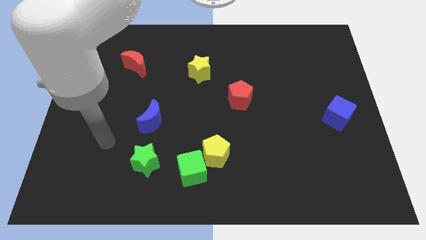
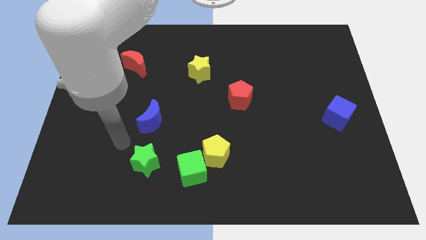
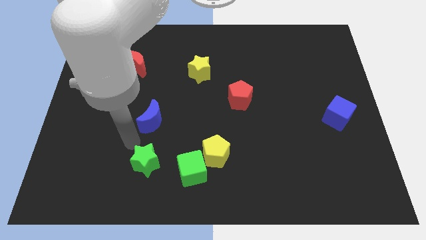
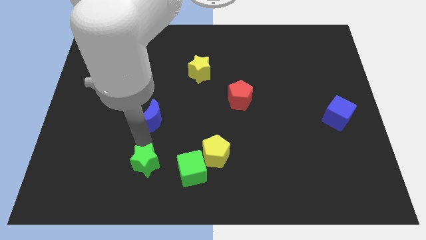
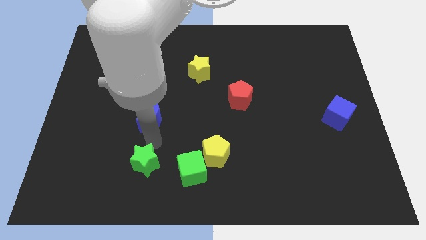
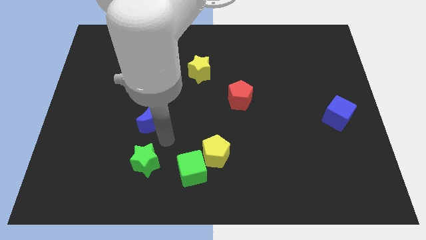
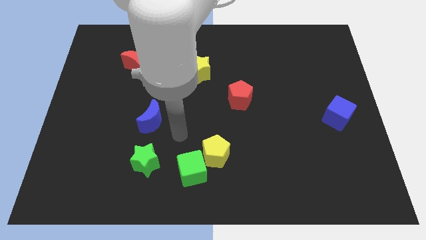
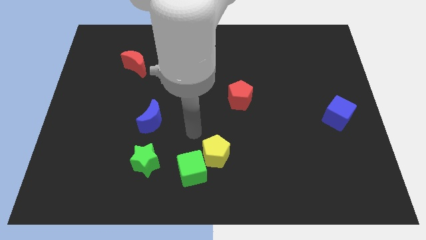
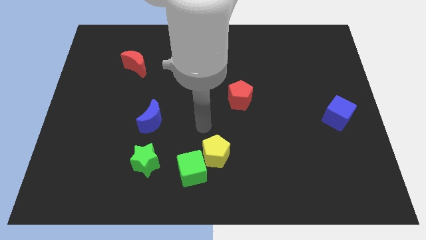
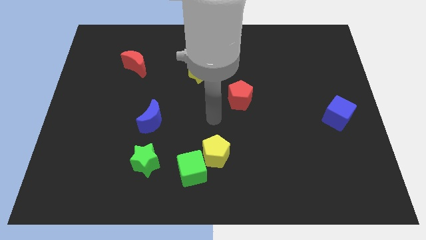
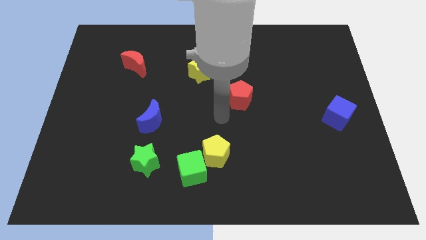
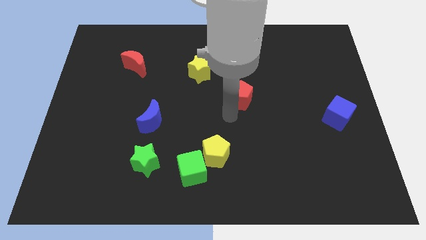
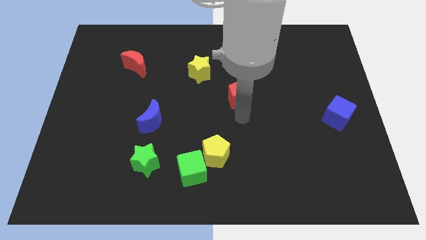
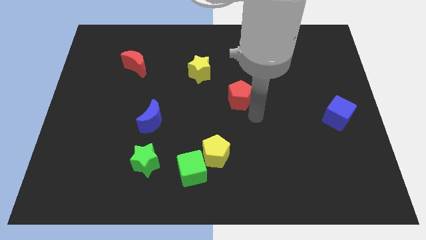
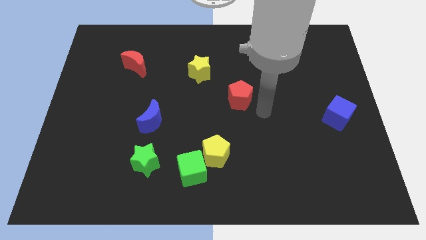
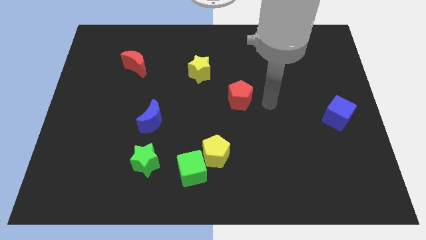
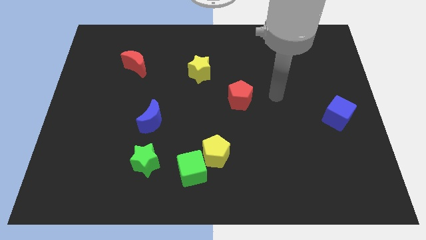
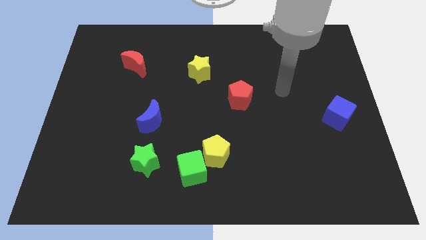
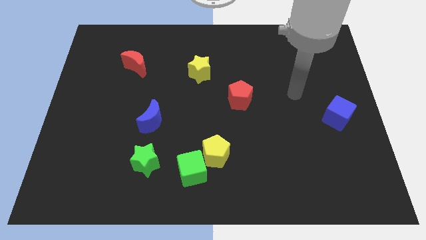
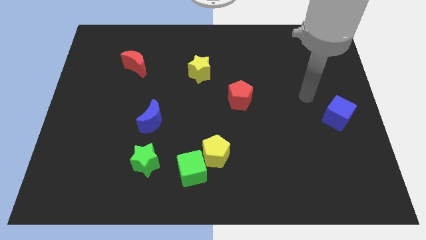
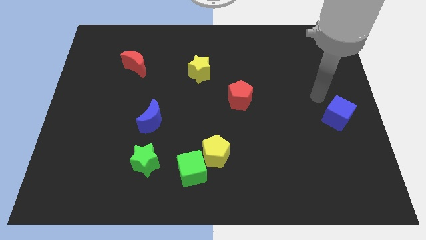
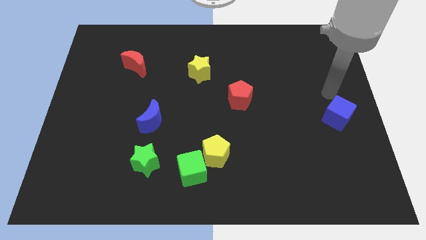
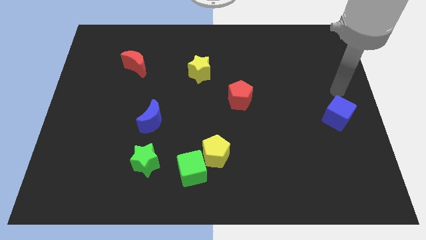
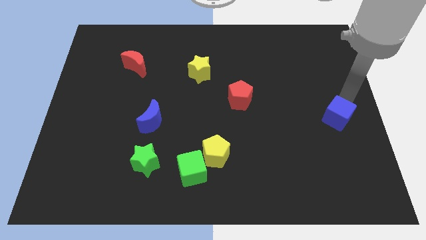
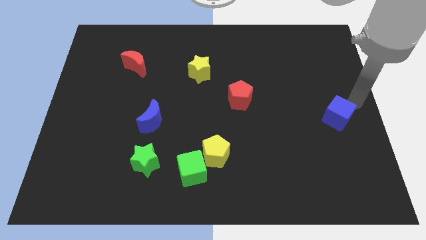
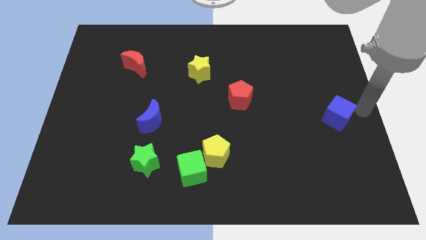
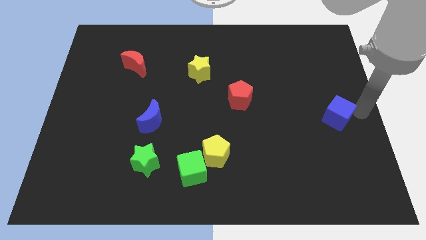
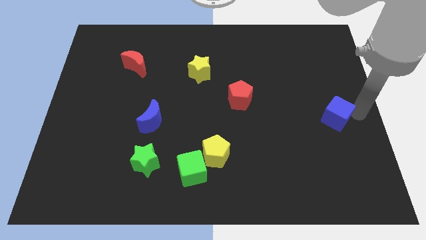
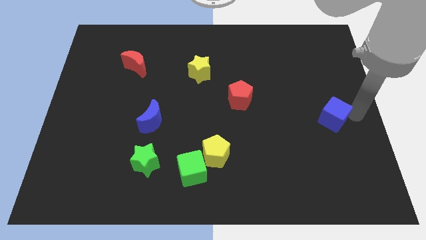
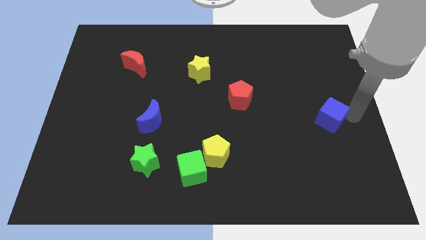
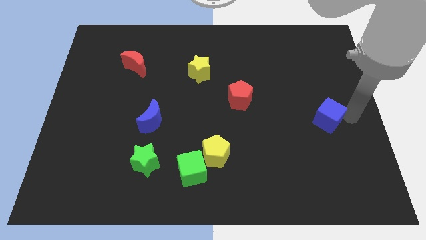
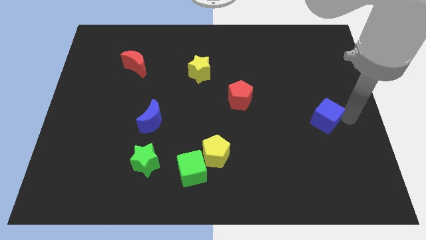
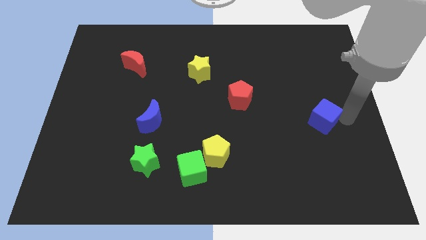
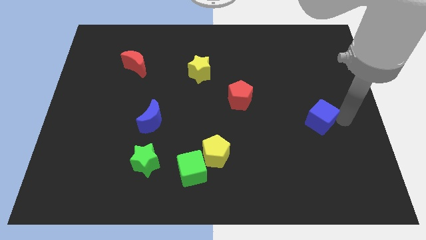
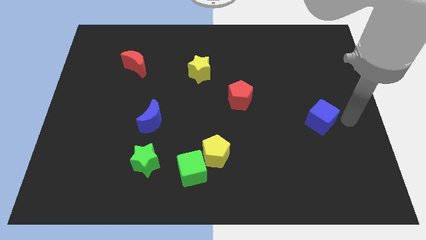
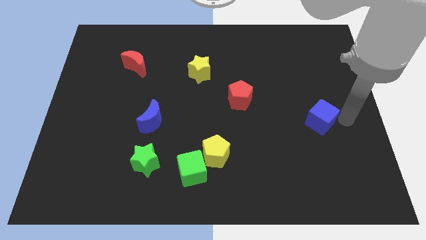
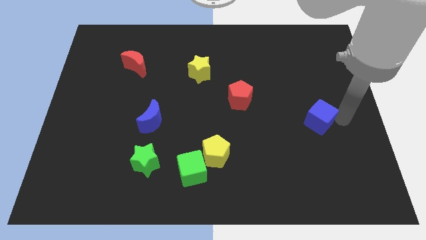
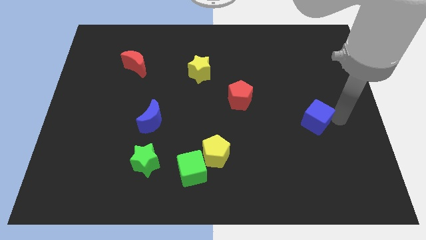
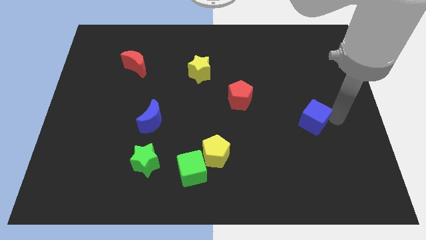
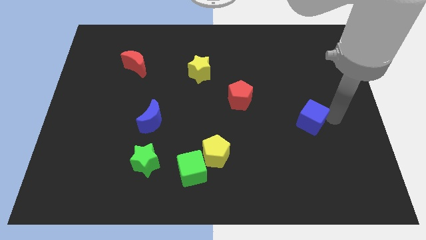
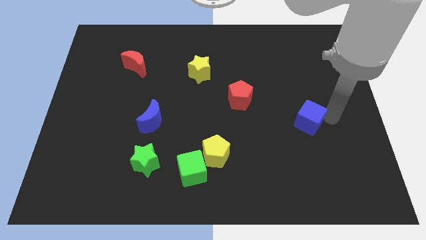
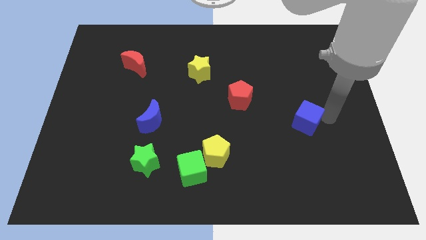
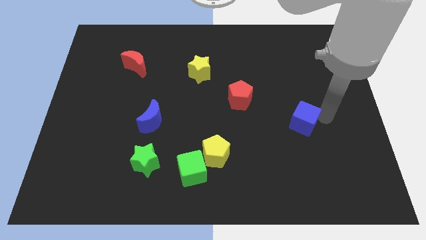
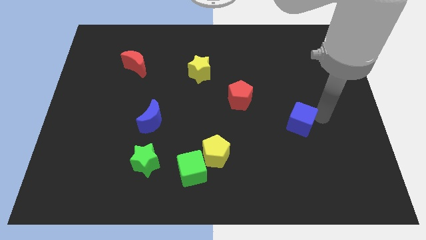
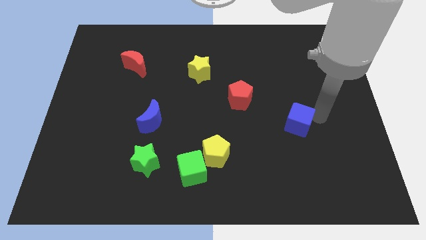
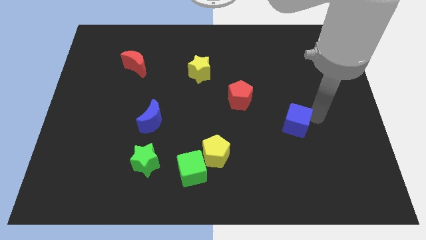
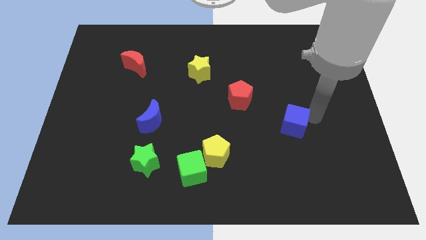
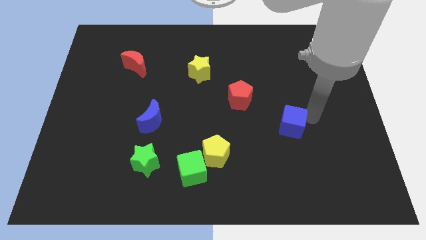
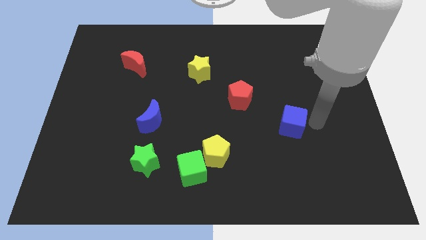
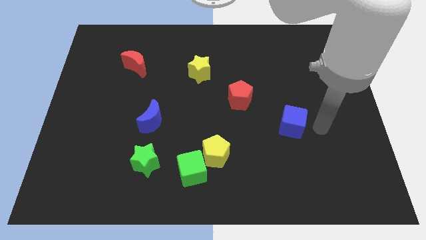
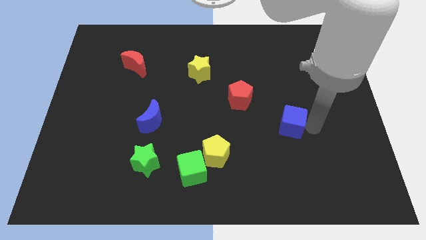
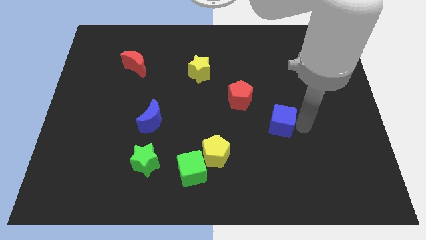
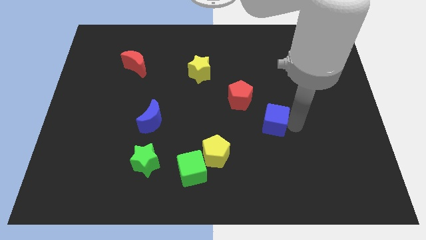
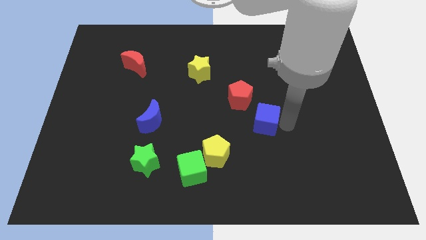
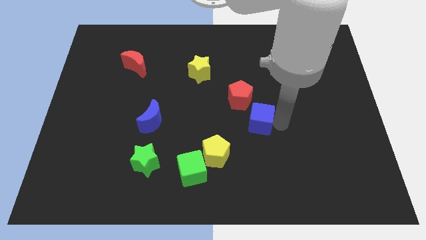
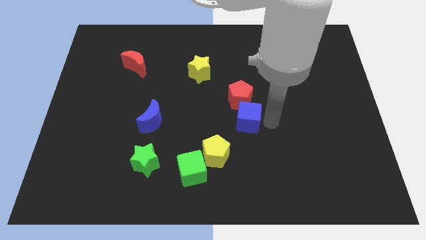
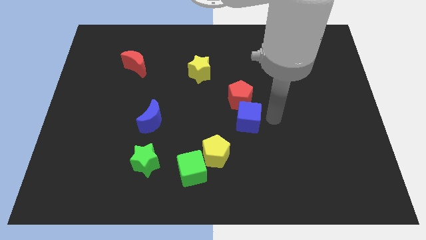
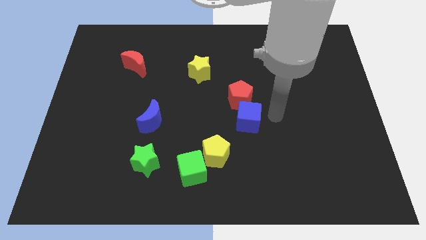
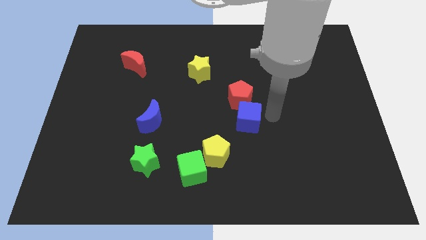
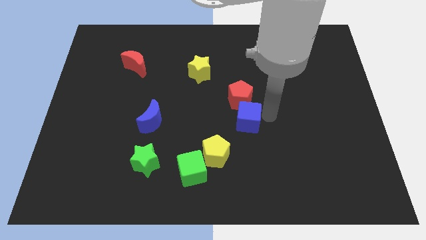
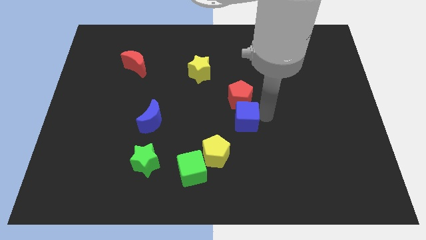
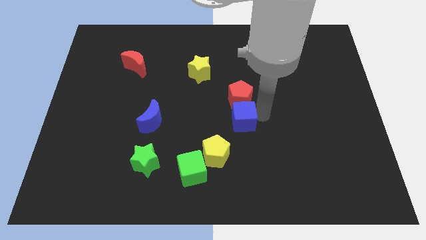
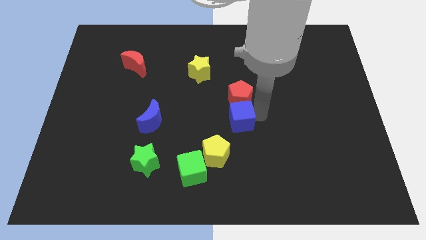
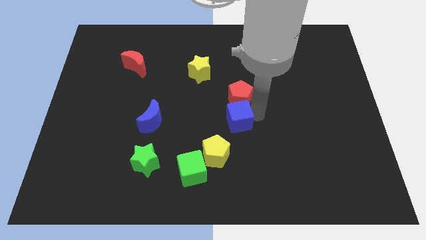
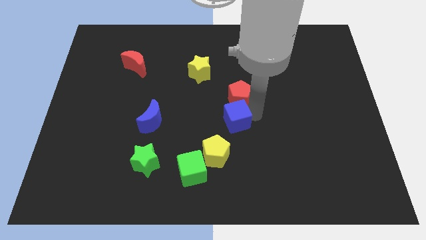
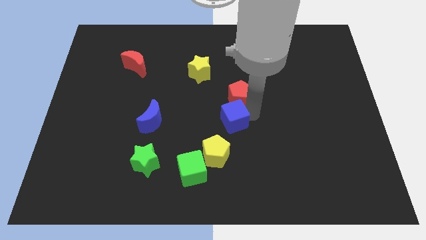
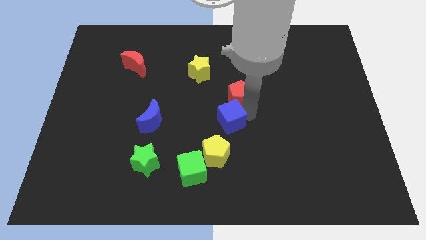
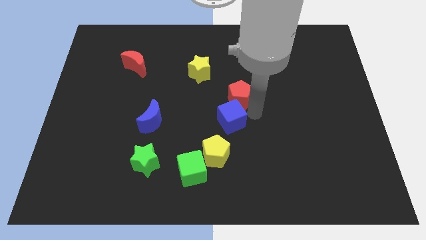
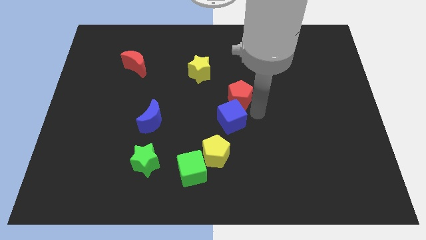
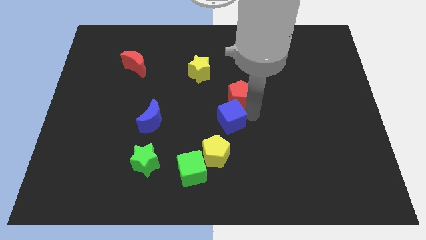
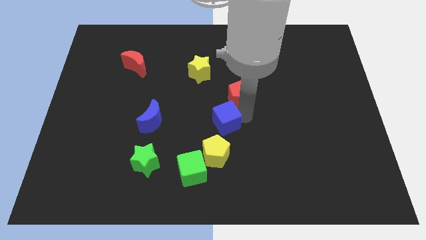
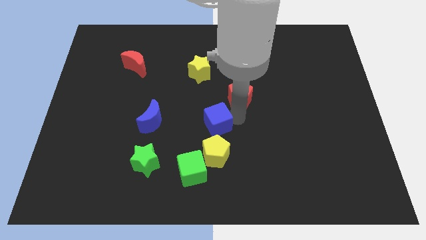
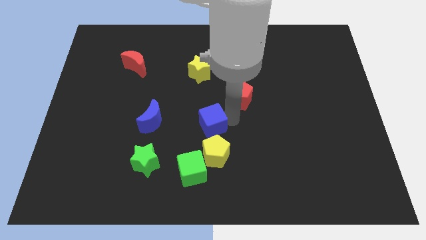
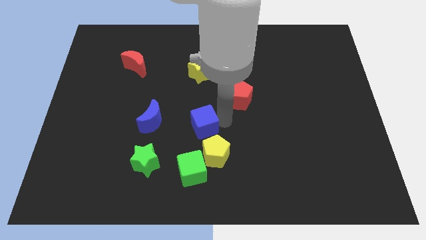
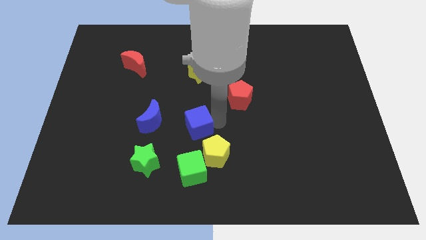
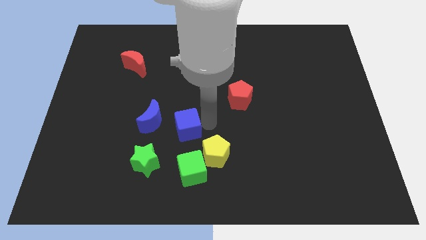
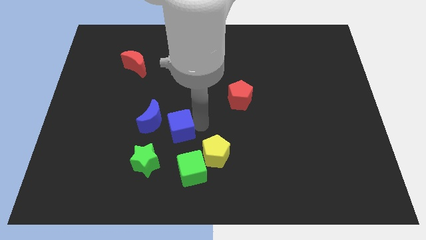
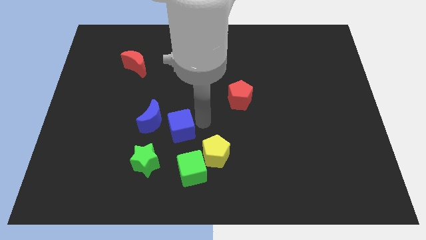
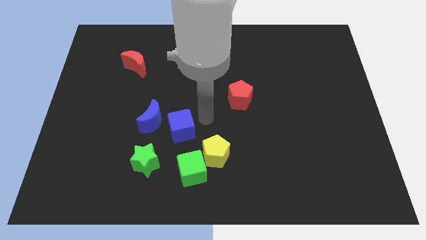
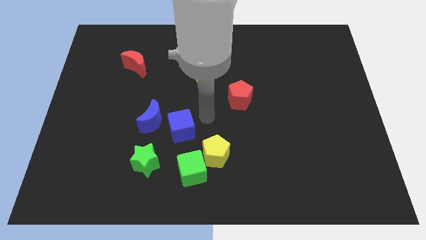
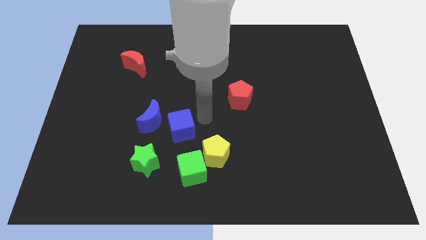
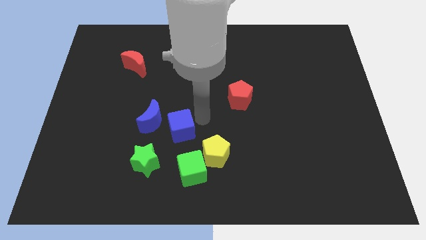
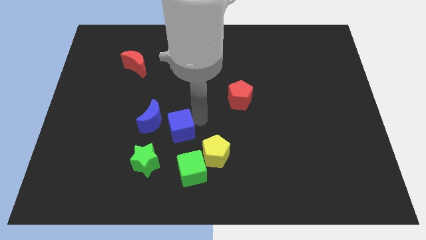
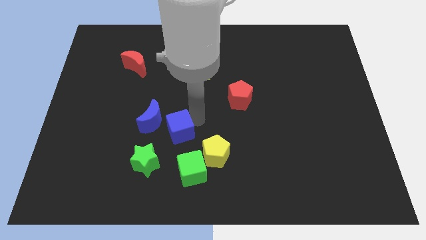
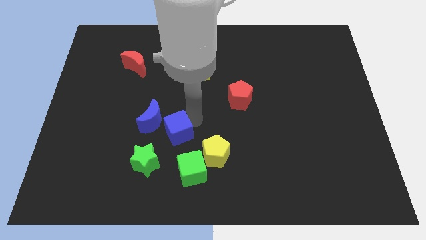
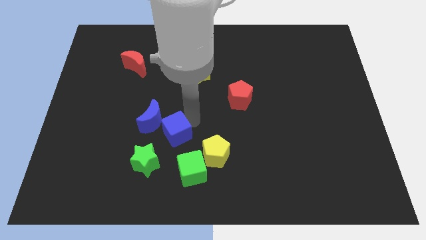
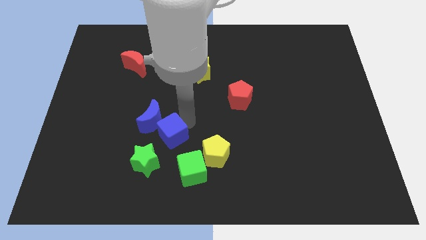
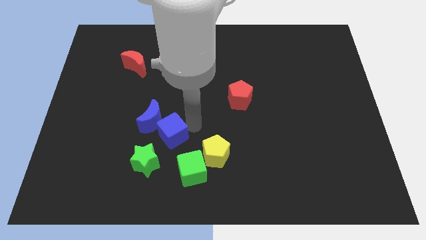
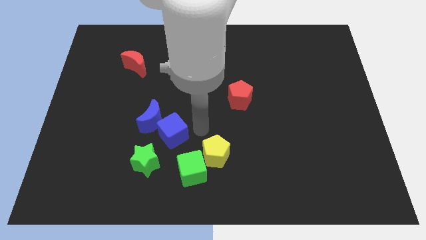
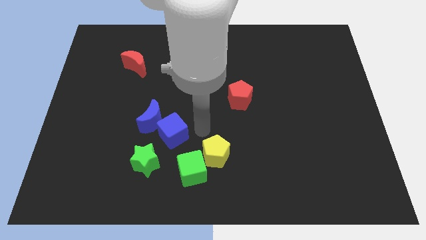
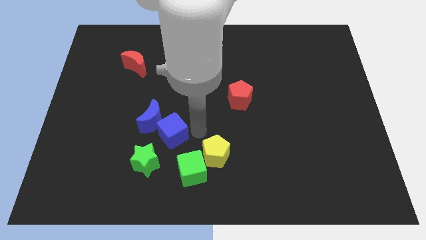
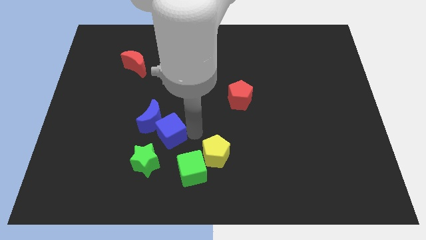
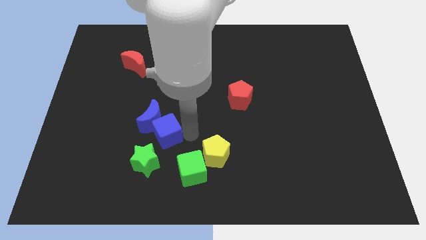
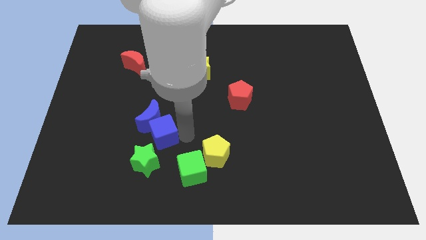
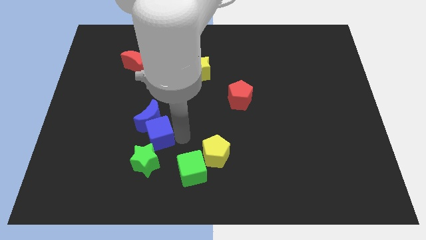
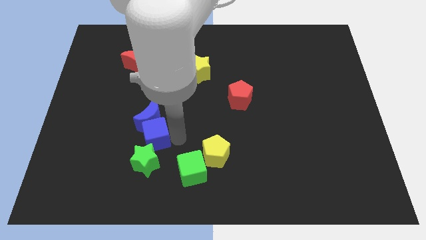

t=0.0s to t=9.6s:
push the blue cube to the bottom left side of the blue moon
